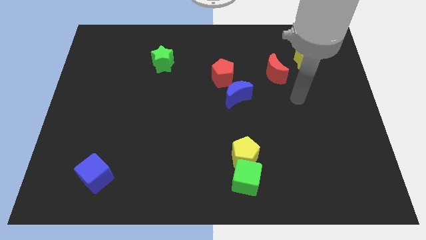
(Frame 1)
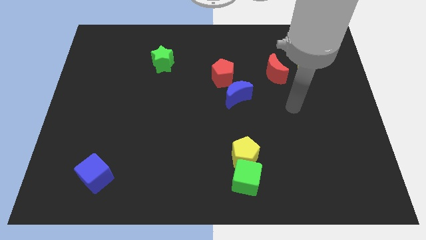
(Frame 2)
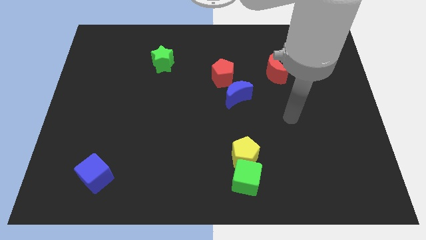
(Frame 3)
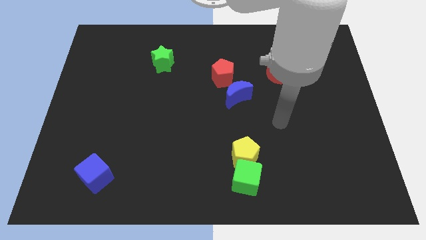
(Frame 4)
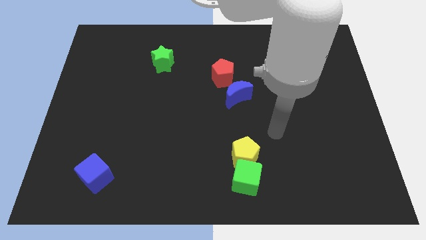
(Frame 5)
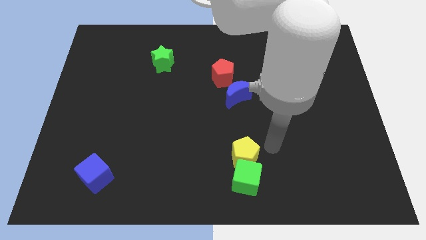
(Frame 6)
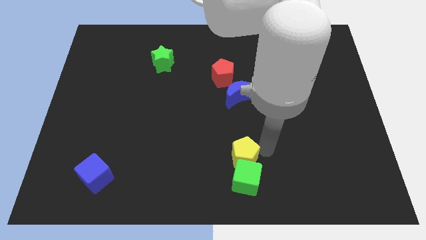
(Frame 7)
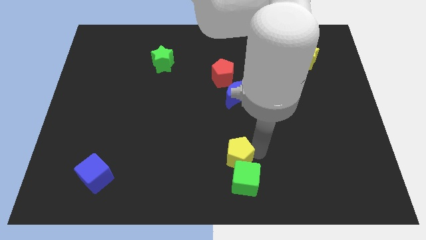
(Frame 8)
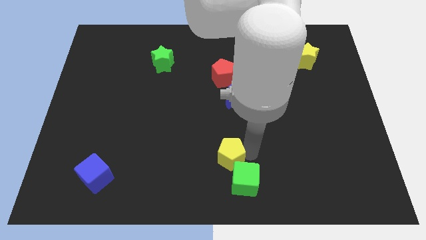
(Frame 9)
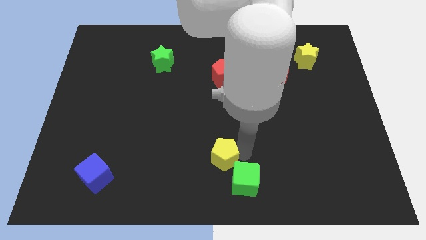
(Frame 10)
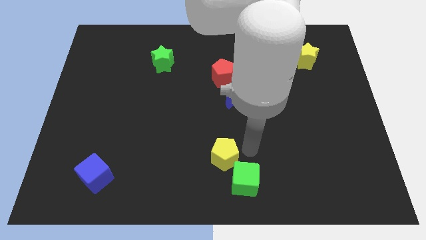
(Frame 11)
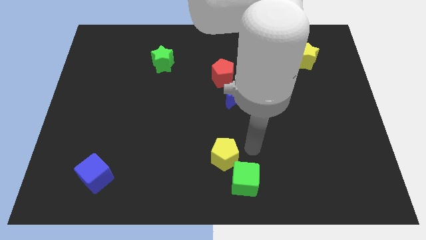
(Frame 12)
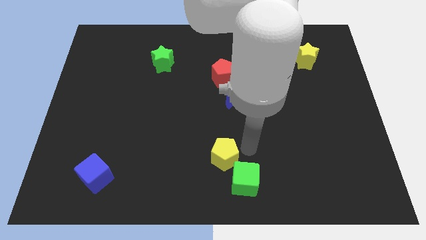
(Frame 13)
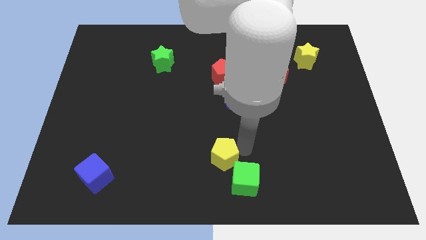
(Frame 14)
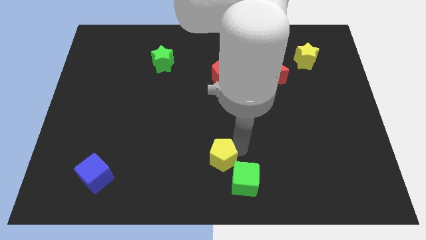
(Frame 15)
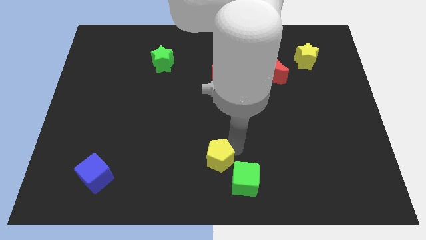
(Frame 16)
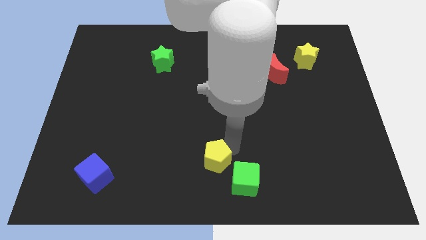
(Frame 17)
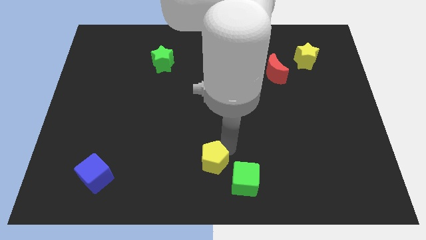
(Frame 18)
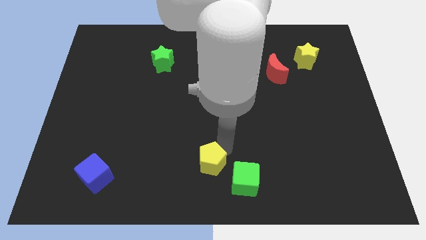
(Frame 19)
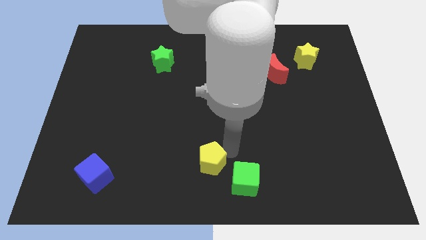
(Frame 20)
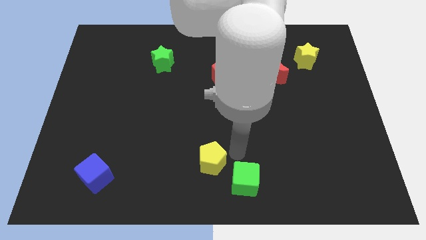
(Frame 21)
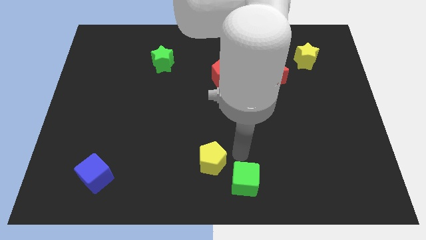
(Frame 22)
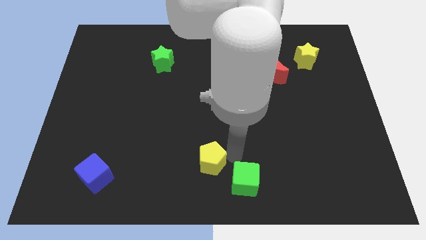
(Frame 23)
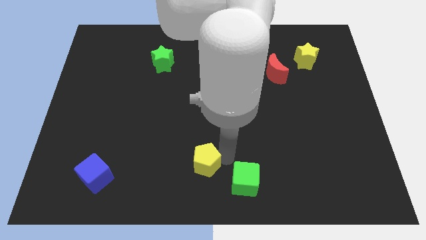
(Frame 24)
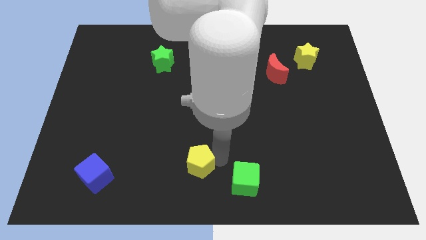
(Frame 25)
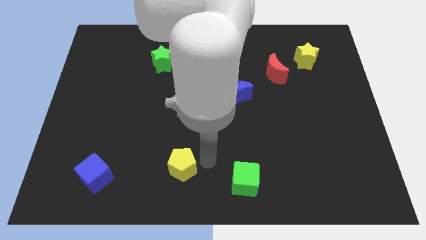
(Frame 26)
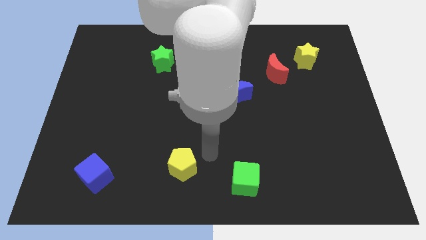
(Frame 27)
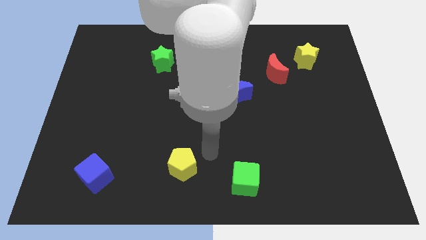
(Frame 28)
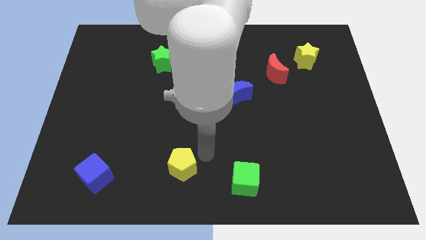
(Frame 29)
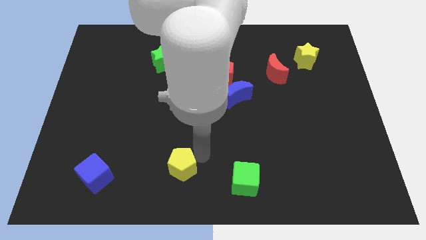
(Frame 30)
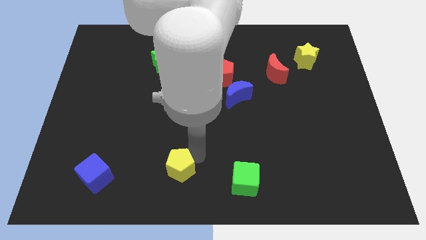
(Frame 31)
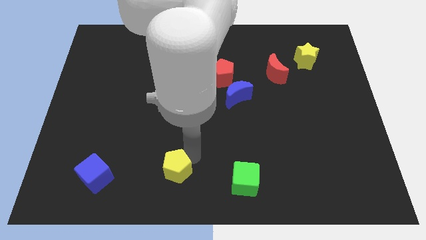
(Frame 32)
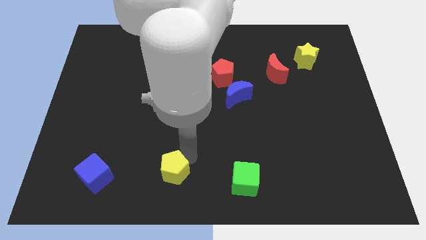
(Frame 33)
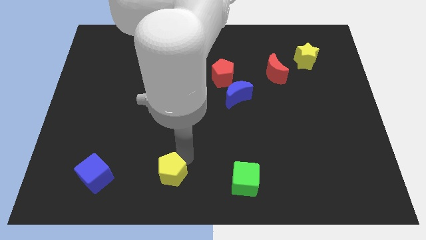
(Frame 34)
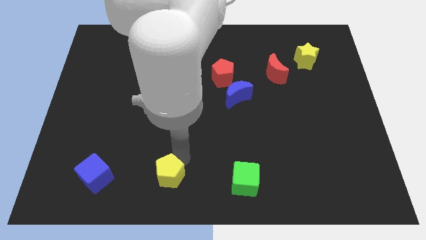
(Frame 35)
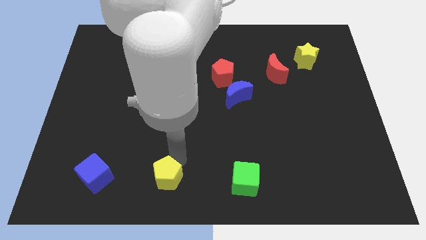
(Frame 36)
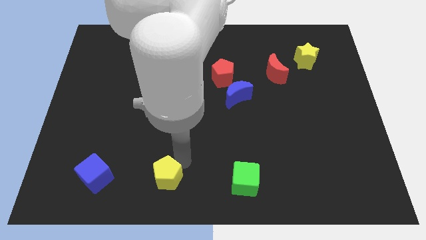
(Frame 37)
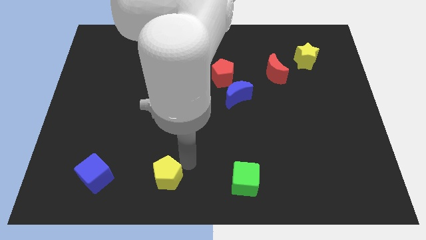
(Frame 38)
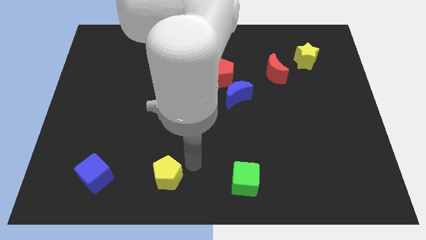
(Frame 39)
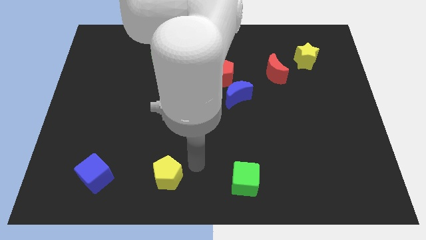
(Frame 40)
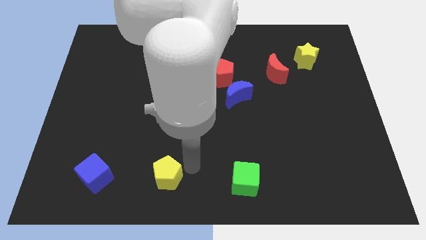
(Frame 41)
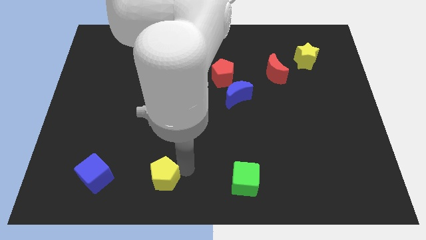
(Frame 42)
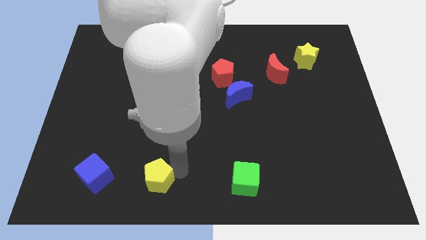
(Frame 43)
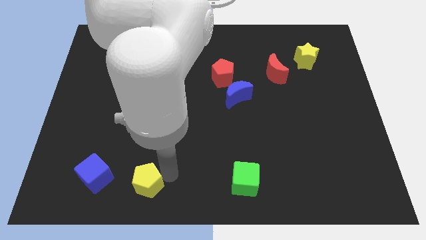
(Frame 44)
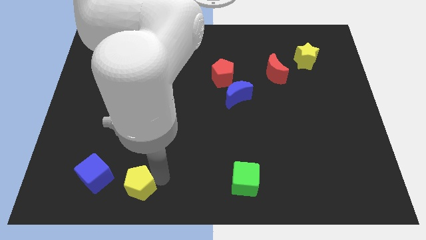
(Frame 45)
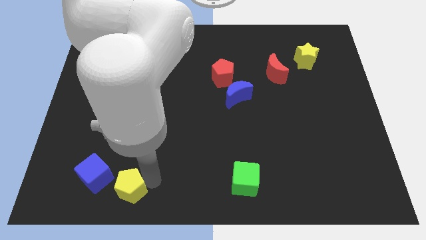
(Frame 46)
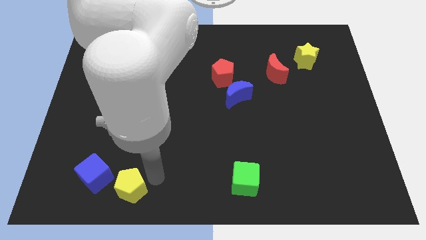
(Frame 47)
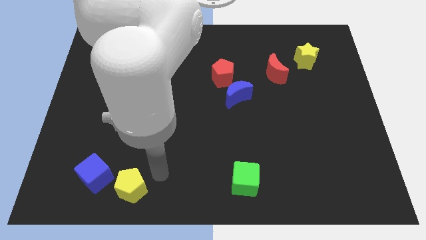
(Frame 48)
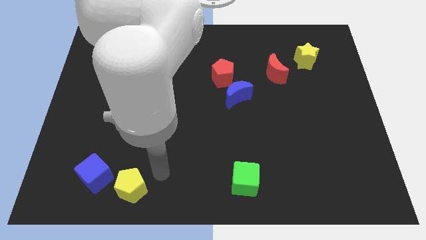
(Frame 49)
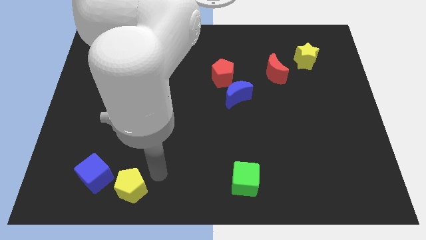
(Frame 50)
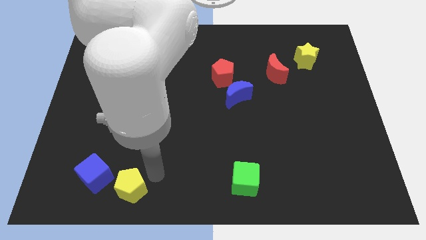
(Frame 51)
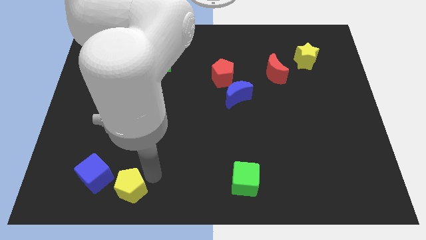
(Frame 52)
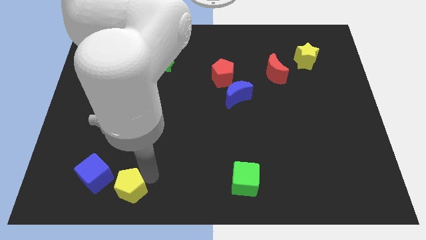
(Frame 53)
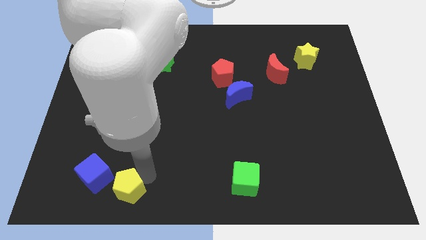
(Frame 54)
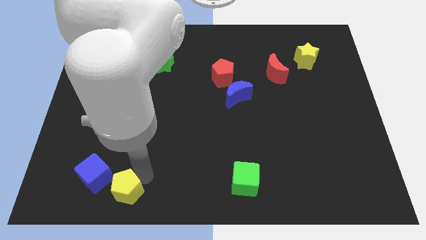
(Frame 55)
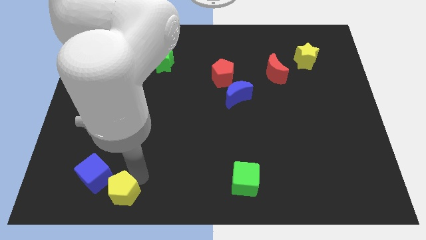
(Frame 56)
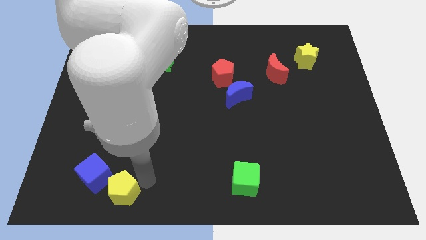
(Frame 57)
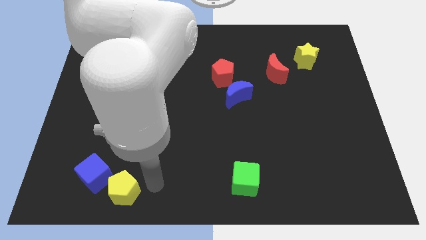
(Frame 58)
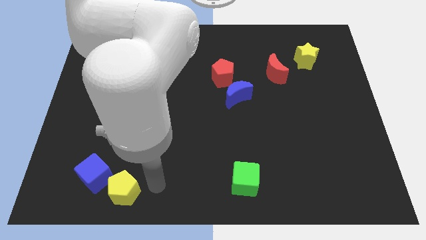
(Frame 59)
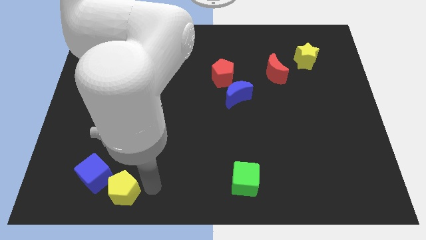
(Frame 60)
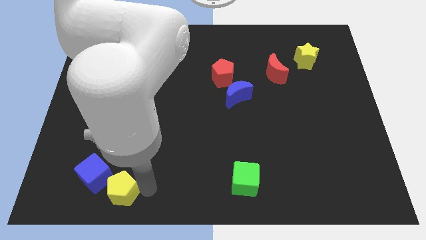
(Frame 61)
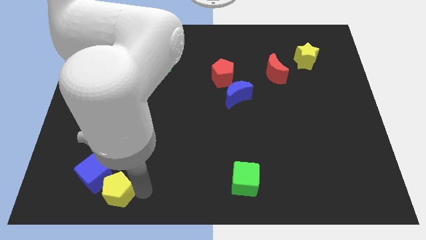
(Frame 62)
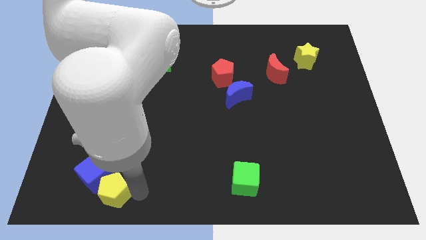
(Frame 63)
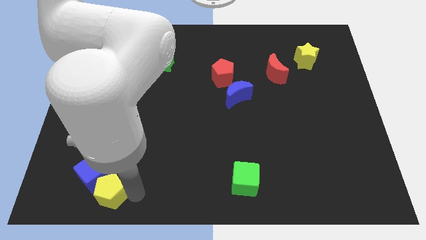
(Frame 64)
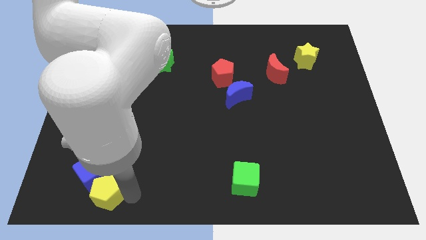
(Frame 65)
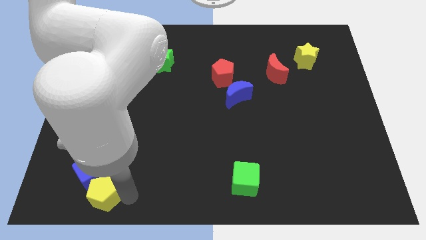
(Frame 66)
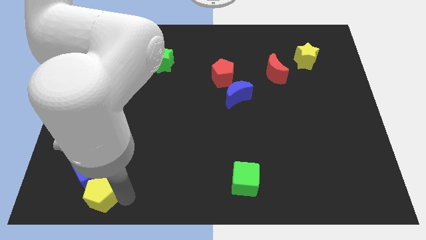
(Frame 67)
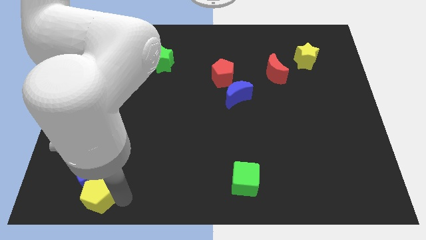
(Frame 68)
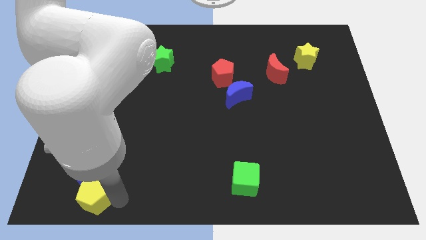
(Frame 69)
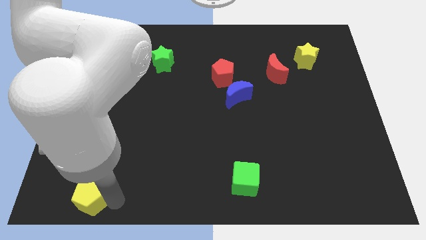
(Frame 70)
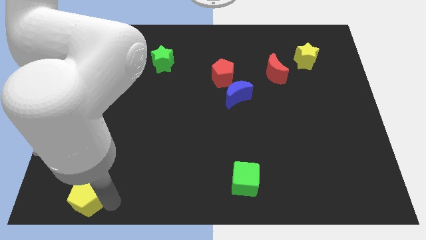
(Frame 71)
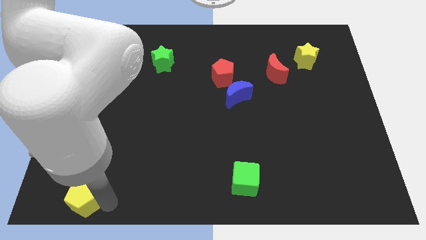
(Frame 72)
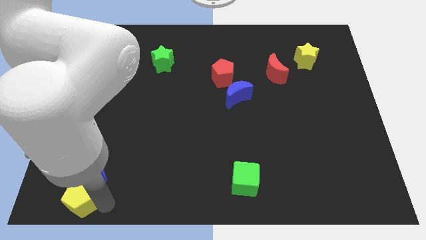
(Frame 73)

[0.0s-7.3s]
slide the yellow pentagon to the bottom left corner
